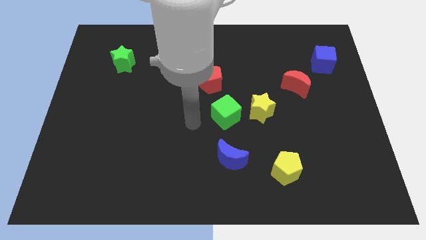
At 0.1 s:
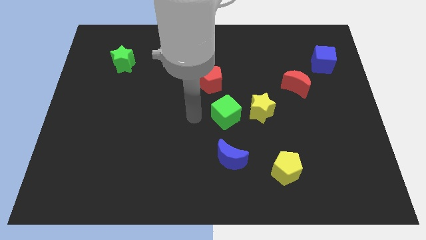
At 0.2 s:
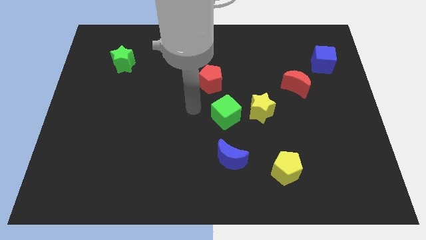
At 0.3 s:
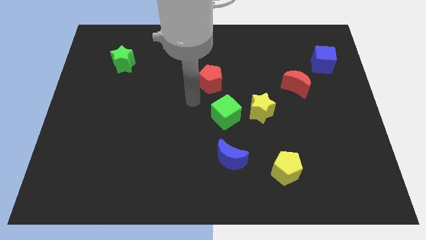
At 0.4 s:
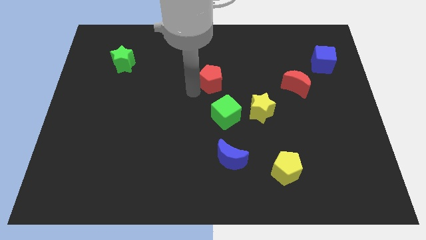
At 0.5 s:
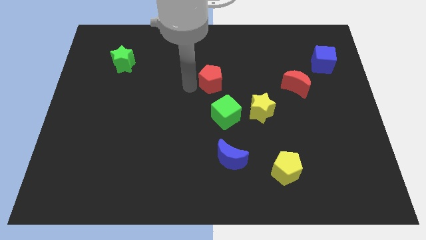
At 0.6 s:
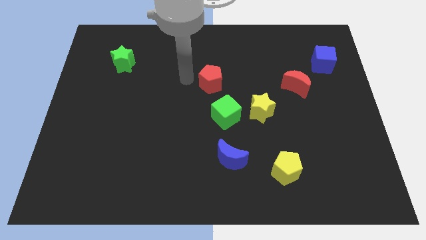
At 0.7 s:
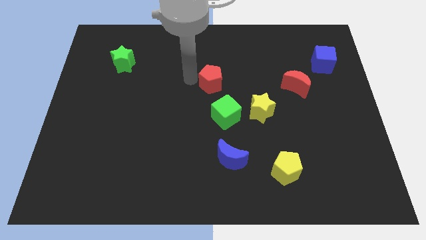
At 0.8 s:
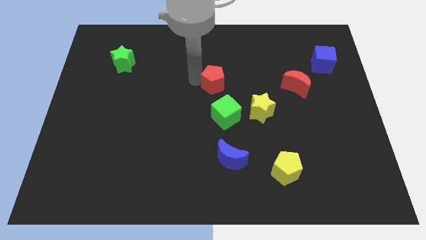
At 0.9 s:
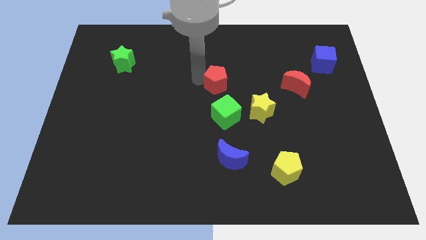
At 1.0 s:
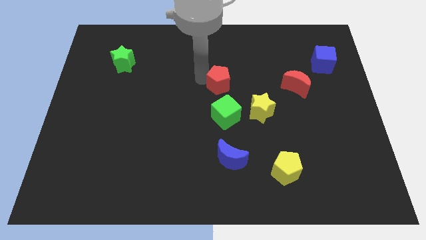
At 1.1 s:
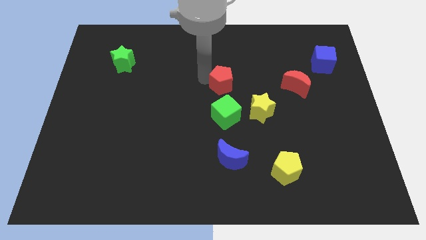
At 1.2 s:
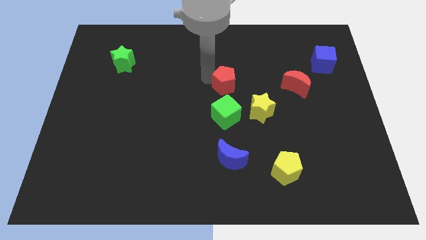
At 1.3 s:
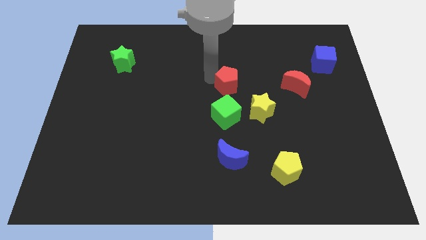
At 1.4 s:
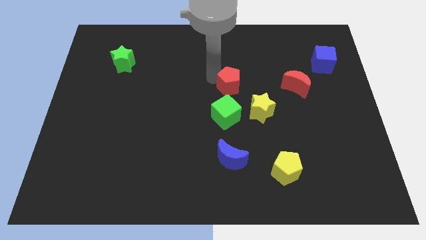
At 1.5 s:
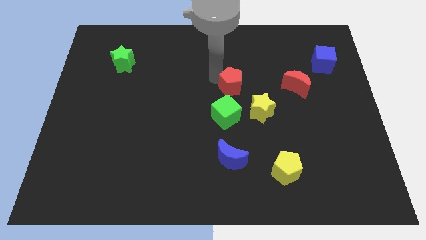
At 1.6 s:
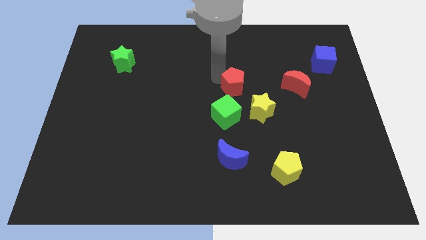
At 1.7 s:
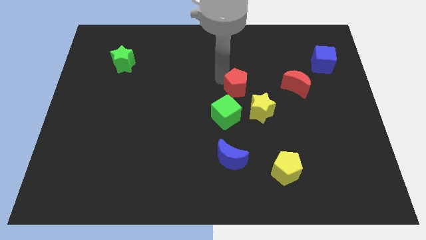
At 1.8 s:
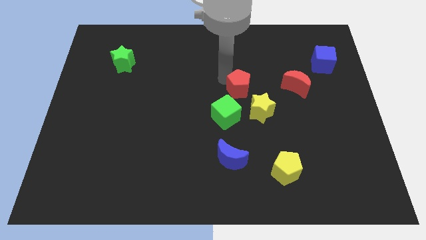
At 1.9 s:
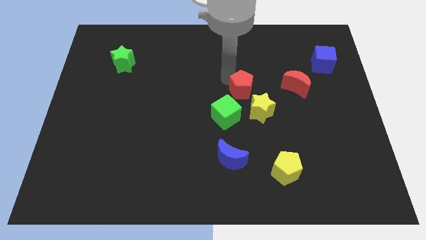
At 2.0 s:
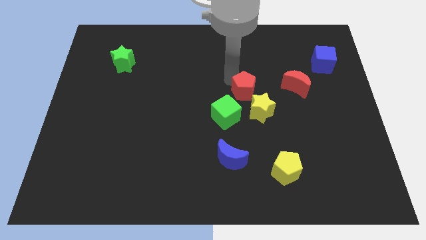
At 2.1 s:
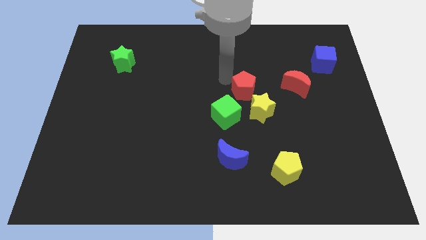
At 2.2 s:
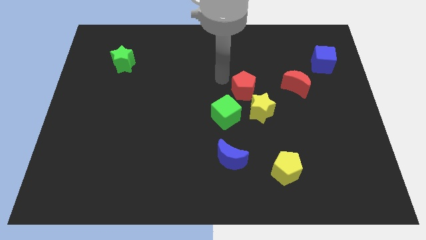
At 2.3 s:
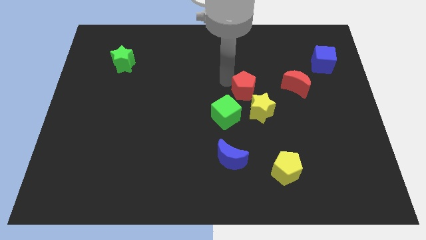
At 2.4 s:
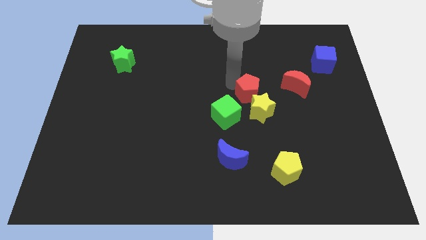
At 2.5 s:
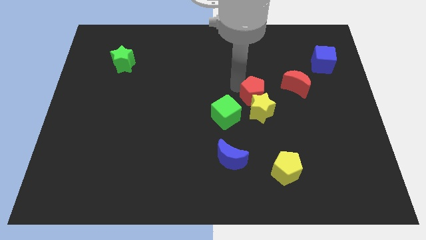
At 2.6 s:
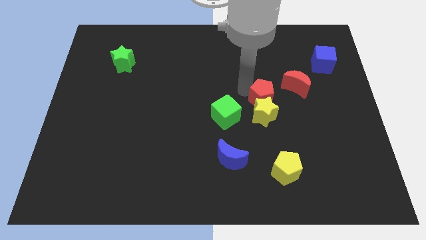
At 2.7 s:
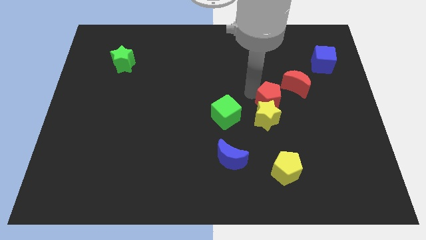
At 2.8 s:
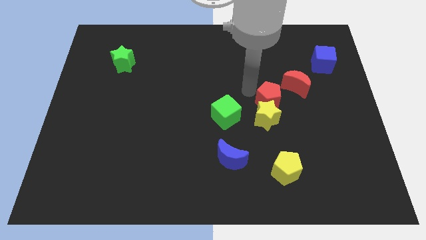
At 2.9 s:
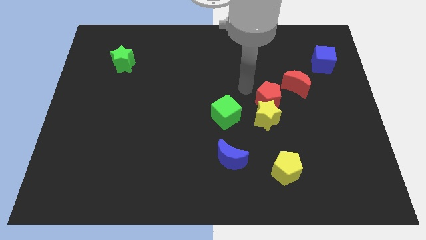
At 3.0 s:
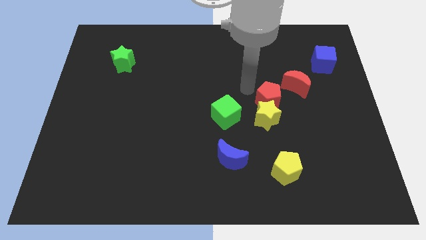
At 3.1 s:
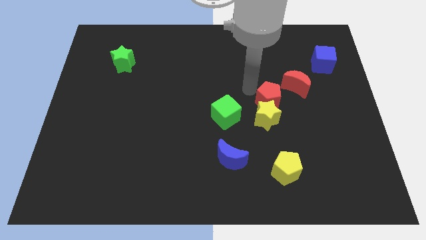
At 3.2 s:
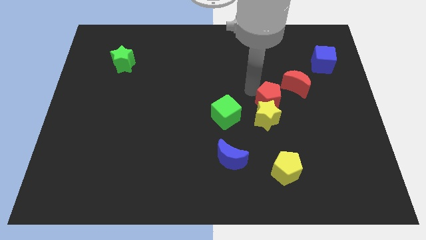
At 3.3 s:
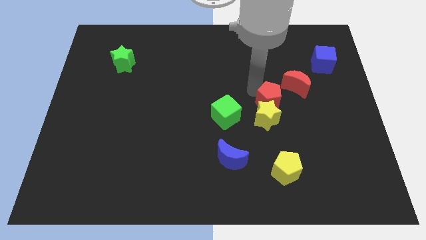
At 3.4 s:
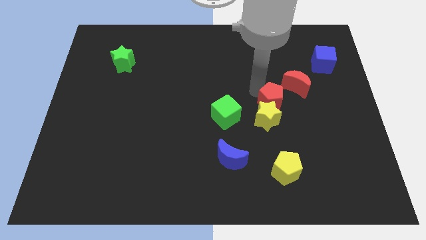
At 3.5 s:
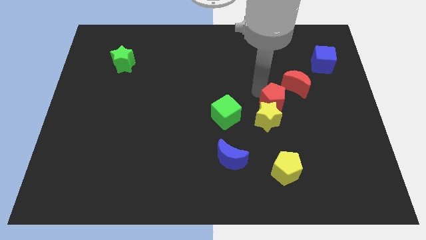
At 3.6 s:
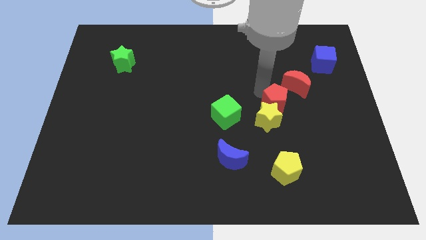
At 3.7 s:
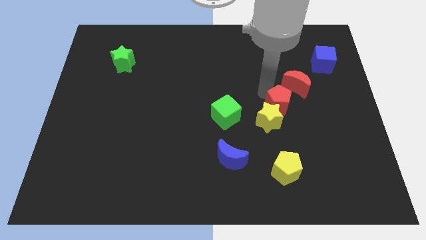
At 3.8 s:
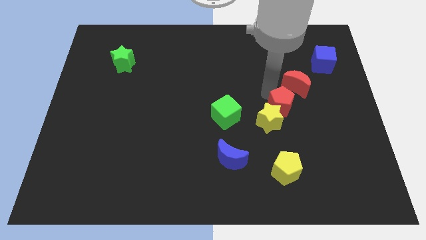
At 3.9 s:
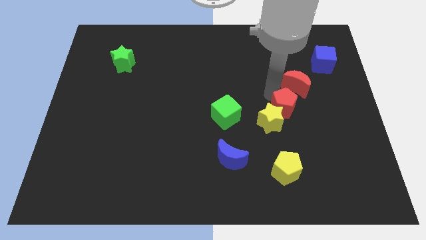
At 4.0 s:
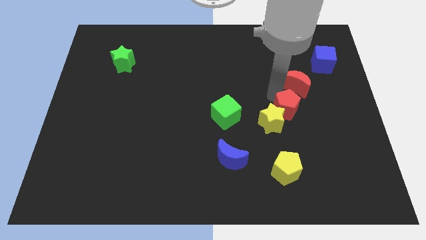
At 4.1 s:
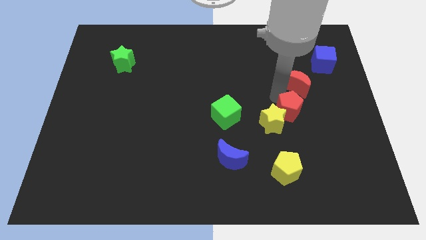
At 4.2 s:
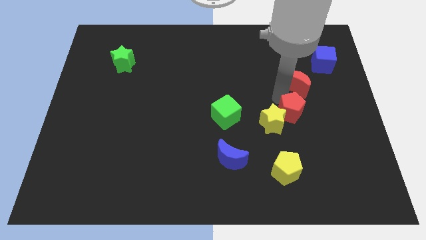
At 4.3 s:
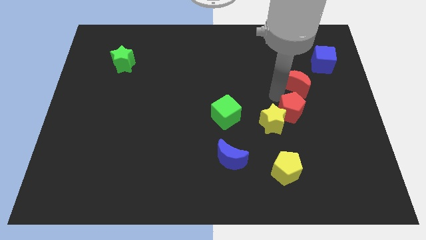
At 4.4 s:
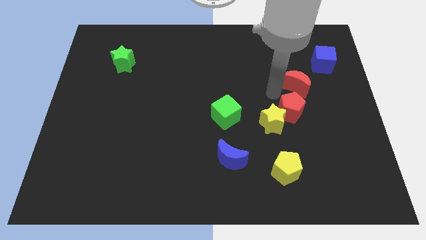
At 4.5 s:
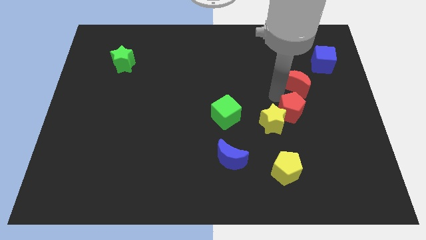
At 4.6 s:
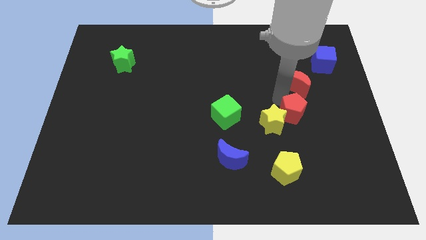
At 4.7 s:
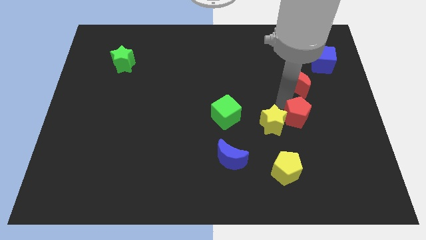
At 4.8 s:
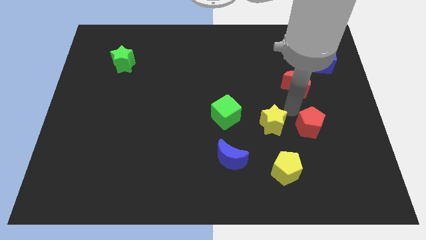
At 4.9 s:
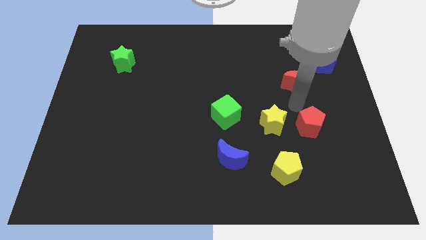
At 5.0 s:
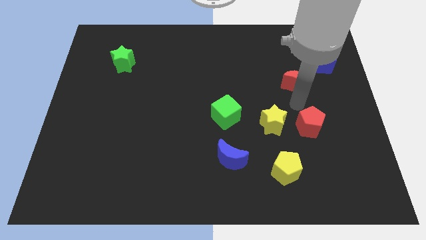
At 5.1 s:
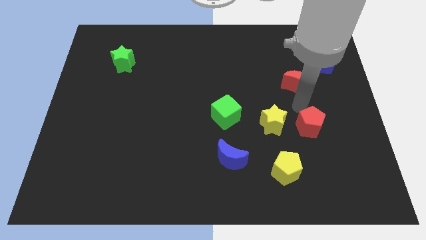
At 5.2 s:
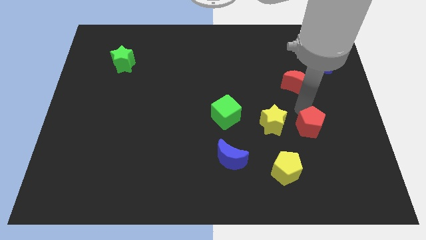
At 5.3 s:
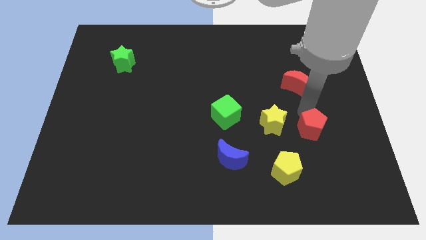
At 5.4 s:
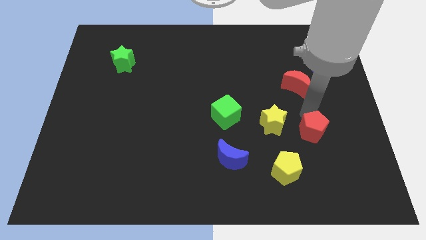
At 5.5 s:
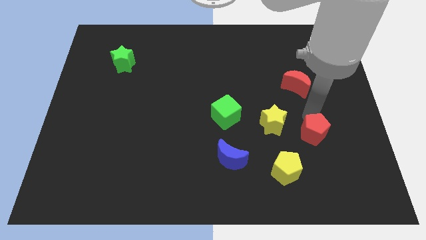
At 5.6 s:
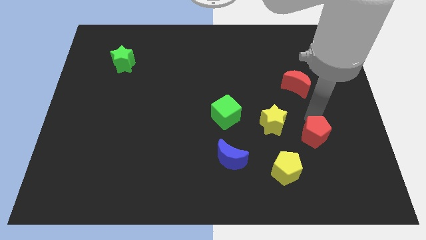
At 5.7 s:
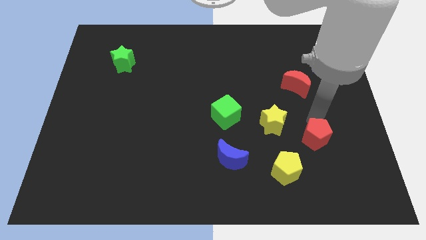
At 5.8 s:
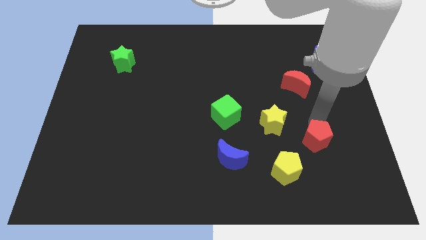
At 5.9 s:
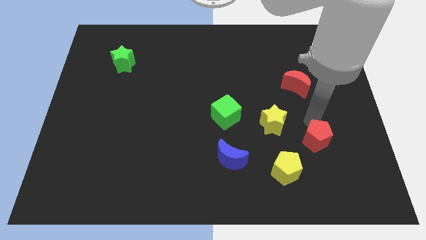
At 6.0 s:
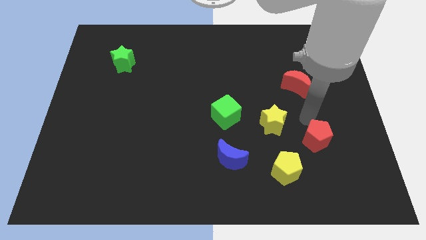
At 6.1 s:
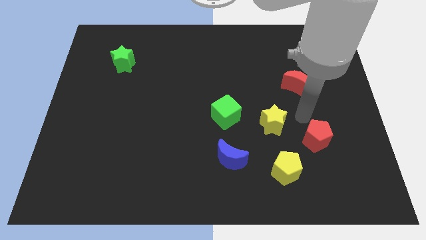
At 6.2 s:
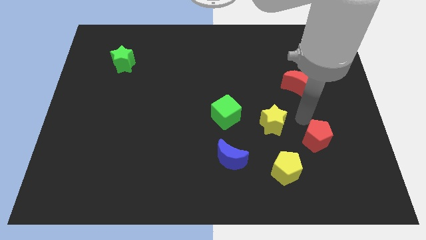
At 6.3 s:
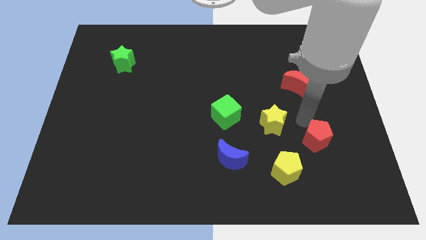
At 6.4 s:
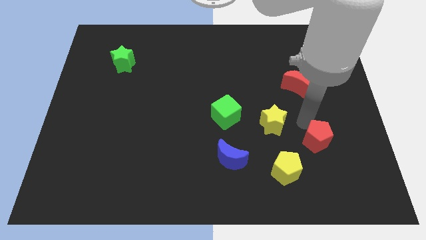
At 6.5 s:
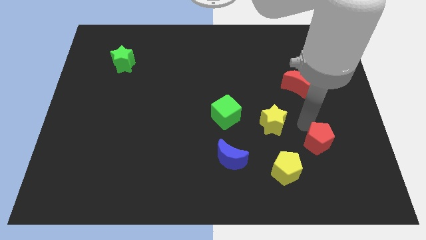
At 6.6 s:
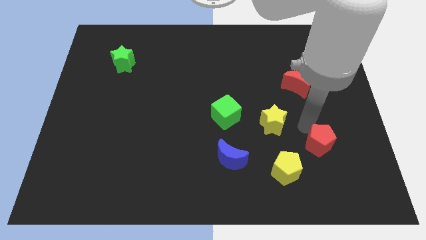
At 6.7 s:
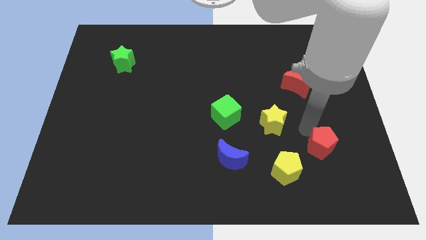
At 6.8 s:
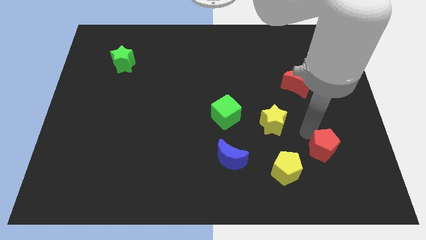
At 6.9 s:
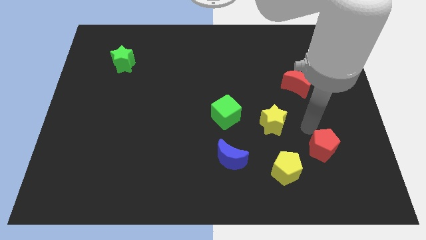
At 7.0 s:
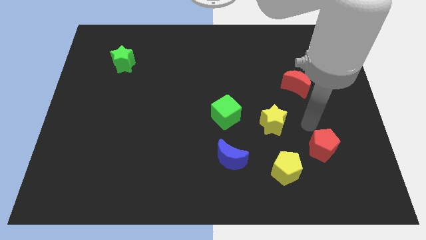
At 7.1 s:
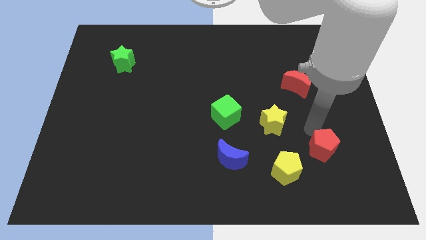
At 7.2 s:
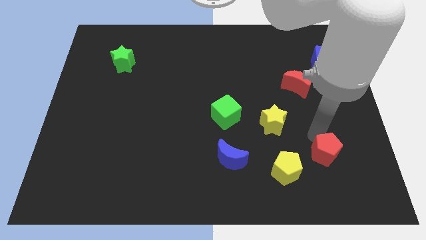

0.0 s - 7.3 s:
push the red pentagon to the right side of the yellow pentagon
